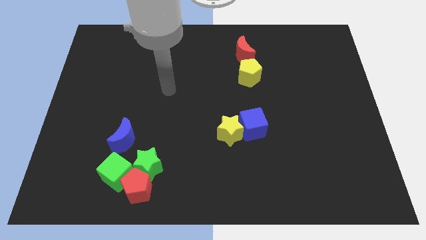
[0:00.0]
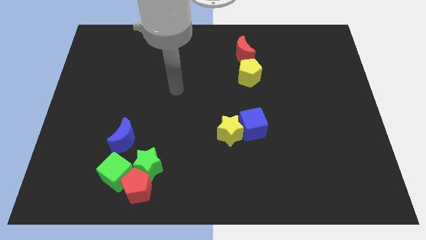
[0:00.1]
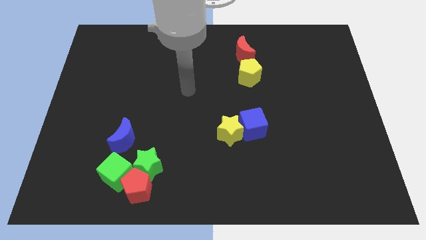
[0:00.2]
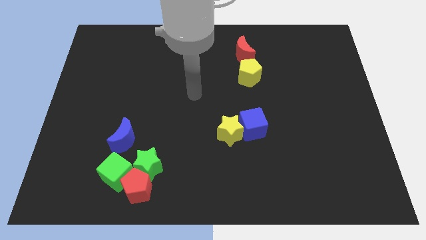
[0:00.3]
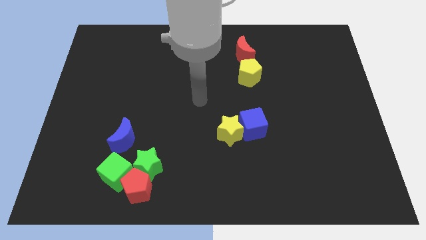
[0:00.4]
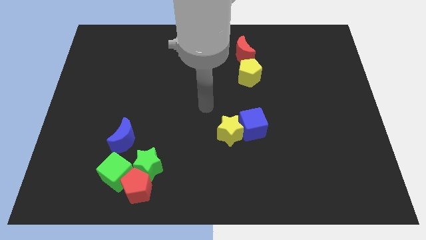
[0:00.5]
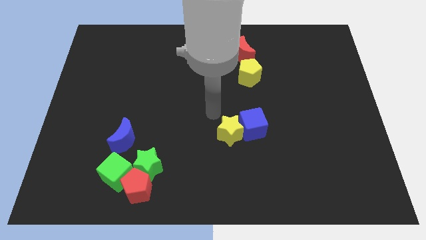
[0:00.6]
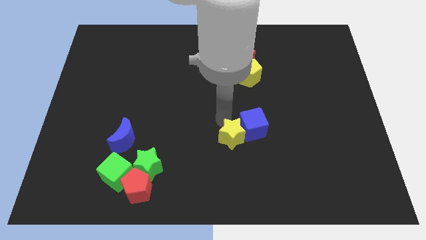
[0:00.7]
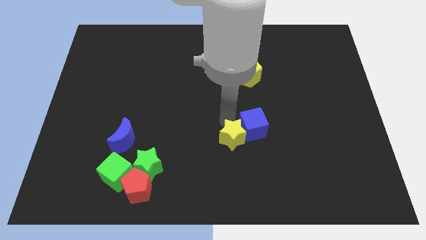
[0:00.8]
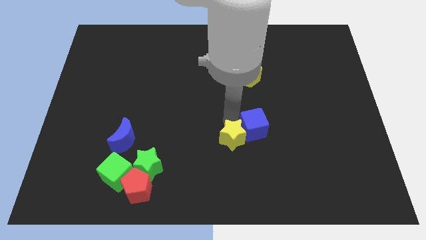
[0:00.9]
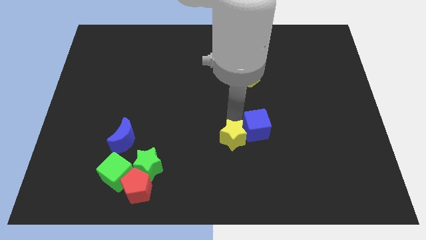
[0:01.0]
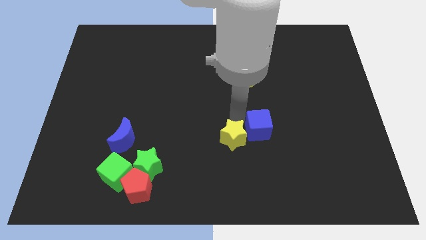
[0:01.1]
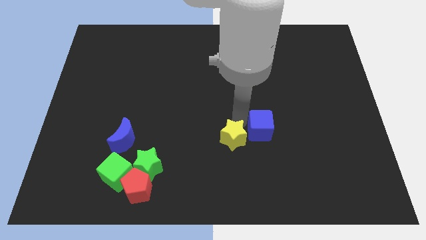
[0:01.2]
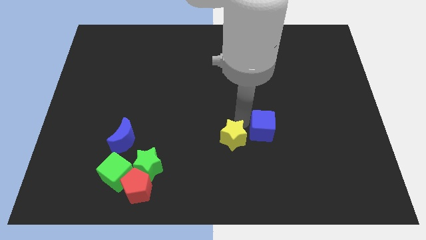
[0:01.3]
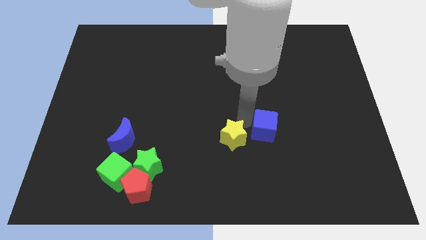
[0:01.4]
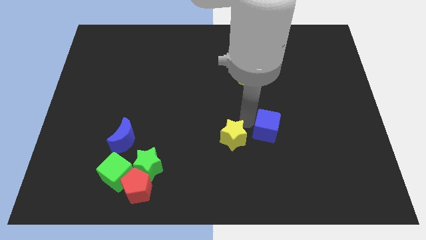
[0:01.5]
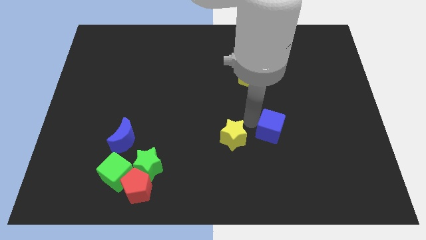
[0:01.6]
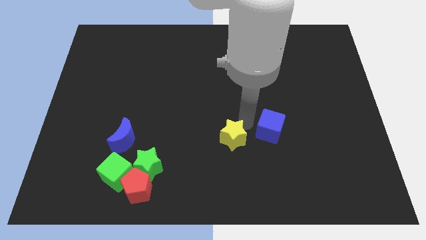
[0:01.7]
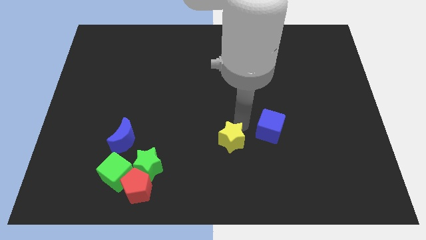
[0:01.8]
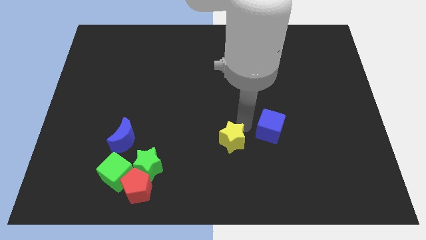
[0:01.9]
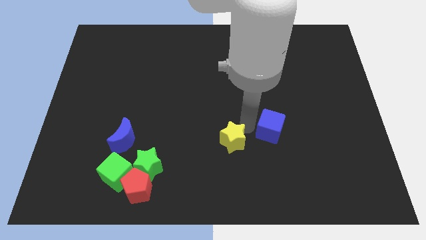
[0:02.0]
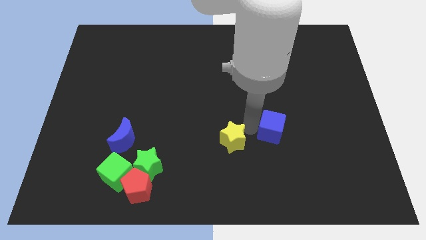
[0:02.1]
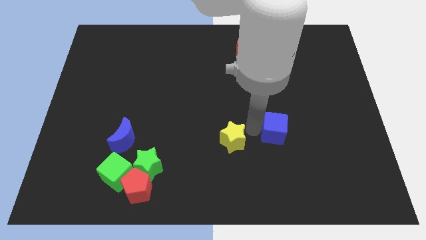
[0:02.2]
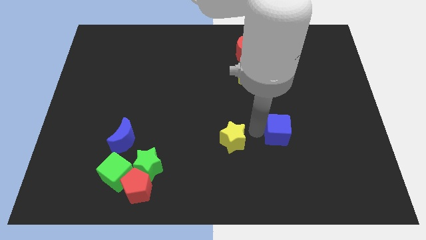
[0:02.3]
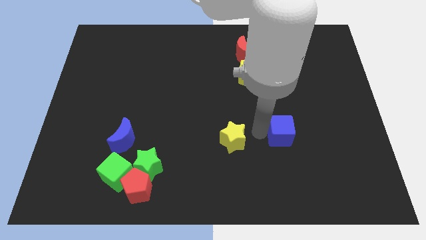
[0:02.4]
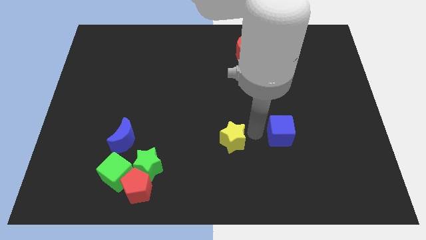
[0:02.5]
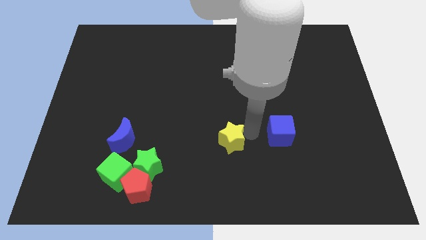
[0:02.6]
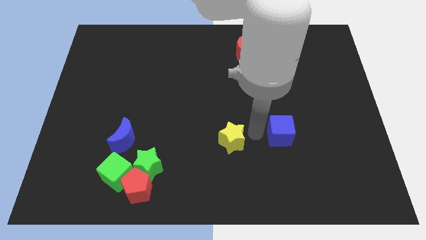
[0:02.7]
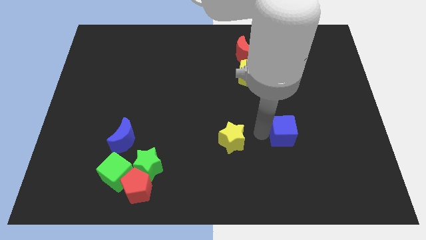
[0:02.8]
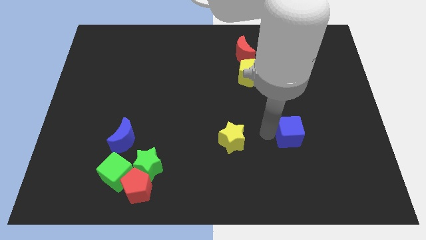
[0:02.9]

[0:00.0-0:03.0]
push the blue cube right slightly

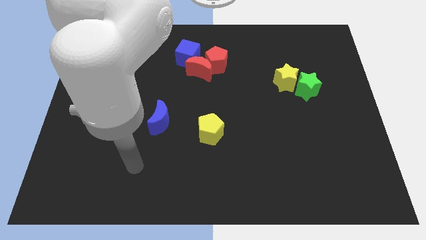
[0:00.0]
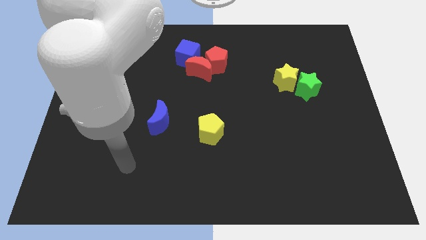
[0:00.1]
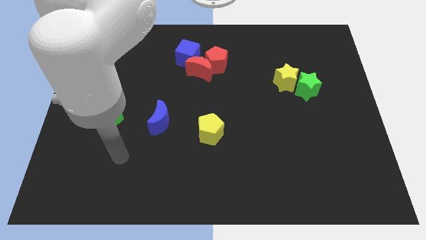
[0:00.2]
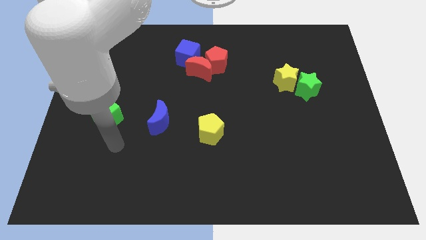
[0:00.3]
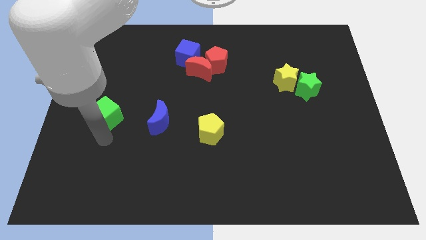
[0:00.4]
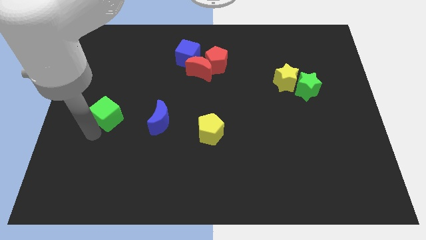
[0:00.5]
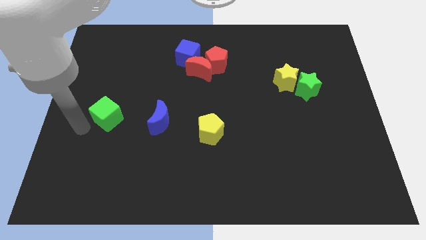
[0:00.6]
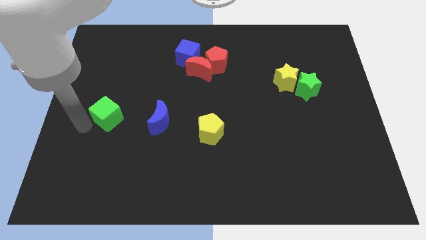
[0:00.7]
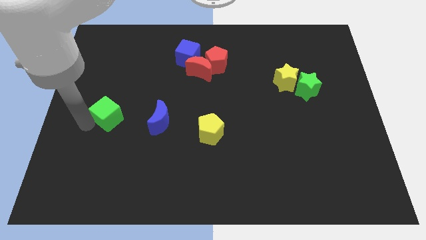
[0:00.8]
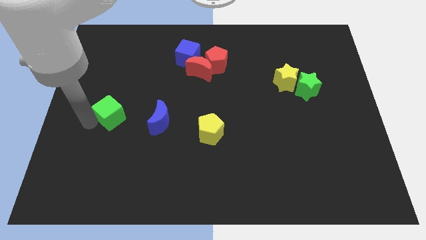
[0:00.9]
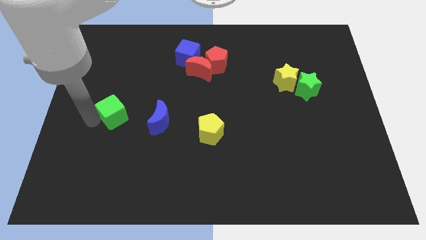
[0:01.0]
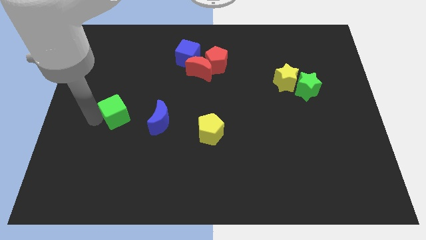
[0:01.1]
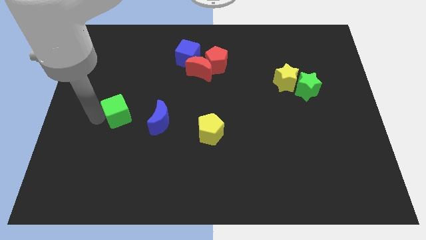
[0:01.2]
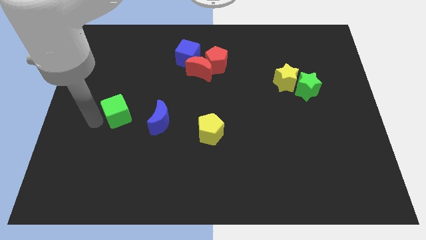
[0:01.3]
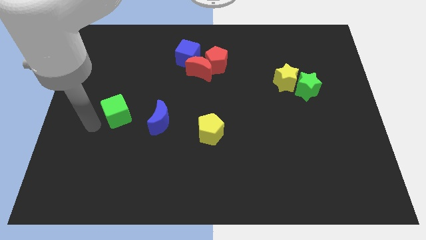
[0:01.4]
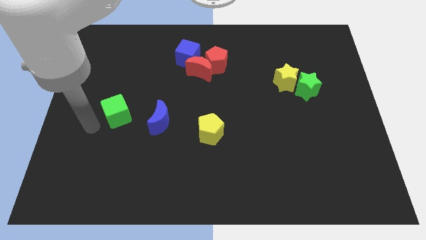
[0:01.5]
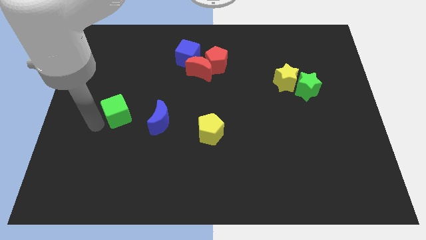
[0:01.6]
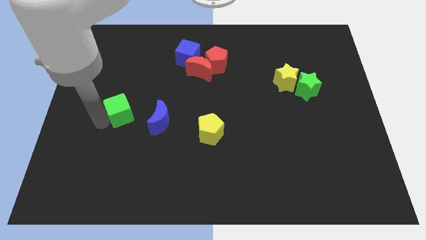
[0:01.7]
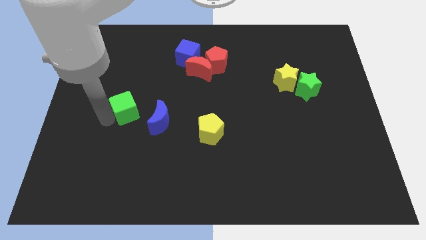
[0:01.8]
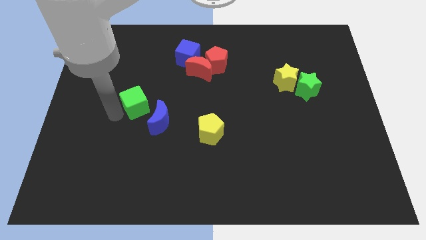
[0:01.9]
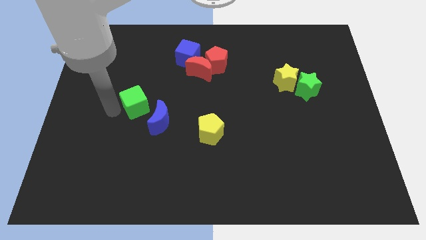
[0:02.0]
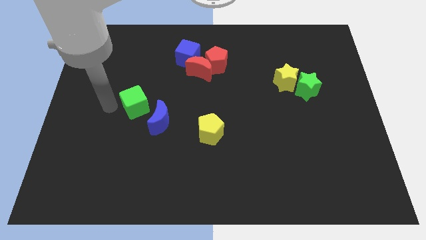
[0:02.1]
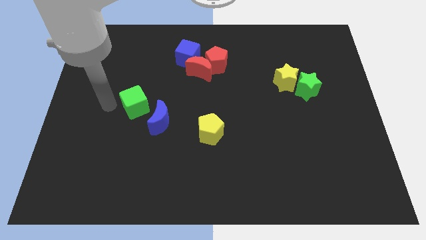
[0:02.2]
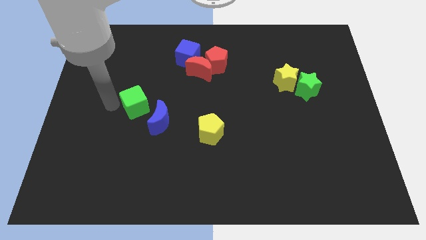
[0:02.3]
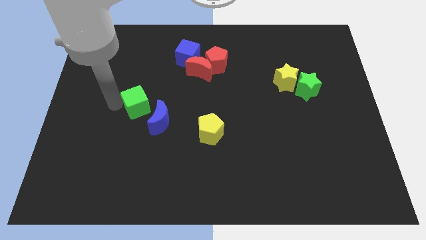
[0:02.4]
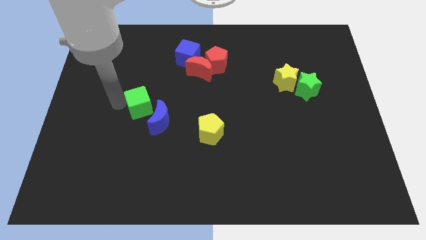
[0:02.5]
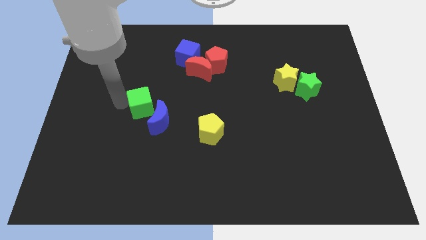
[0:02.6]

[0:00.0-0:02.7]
push the green cube to the right a little bit

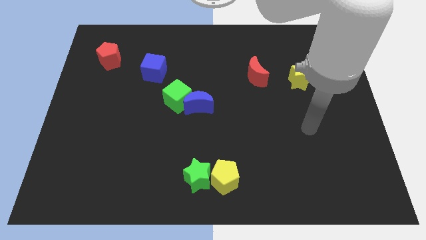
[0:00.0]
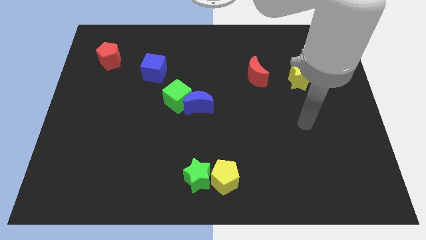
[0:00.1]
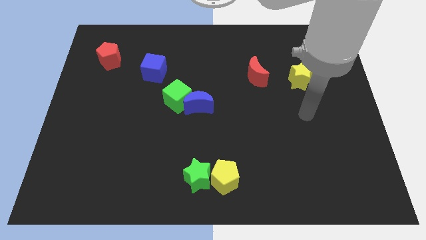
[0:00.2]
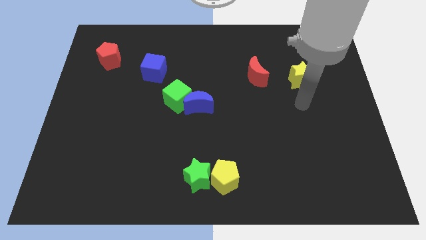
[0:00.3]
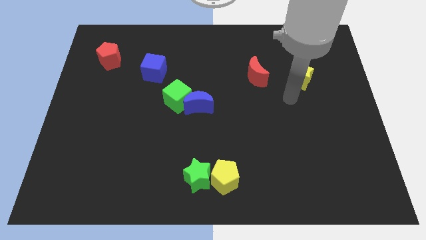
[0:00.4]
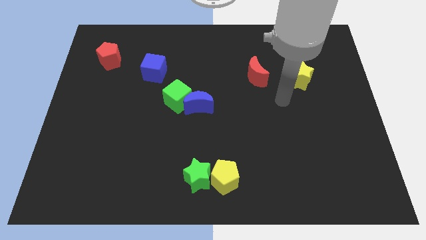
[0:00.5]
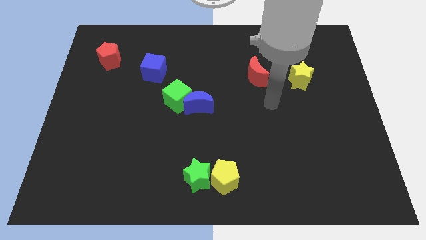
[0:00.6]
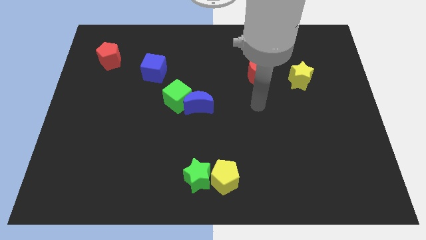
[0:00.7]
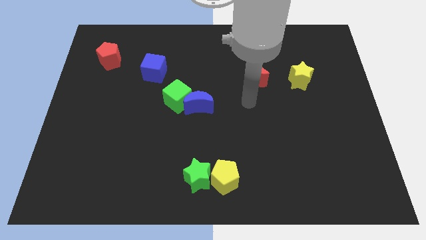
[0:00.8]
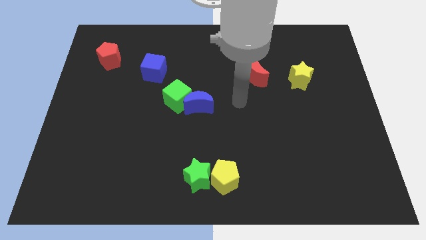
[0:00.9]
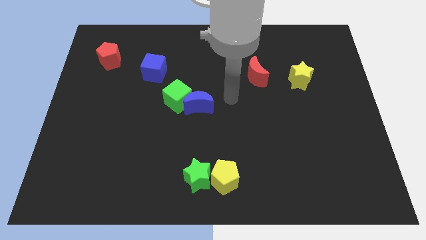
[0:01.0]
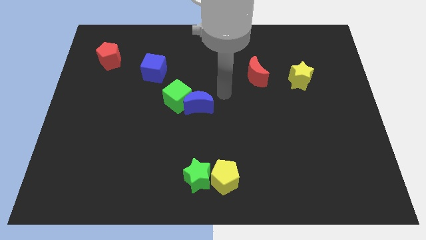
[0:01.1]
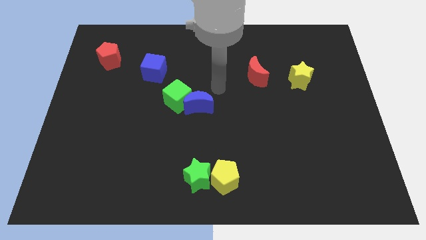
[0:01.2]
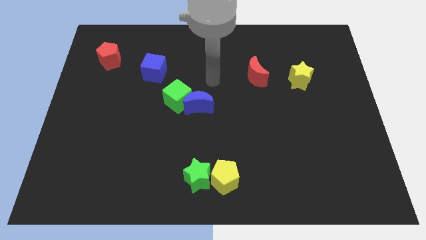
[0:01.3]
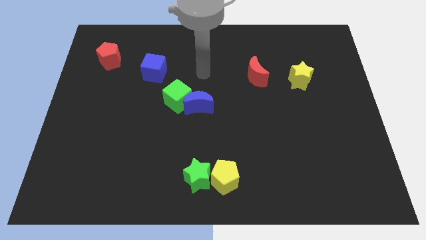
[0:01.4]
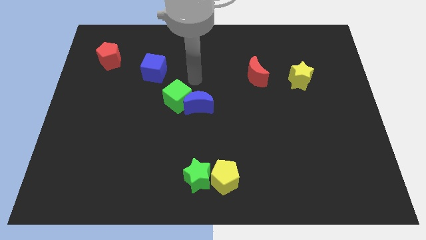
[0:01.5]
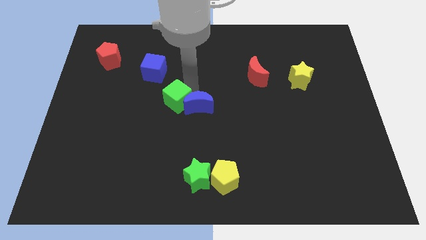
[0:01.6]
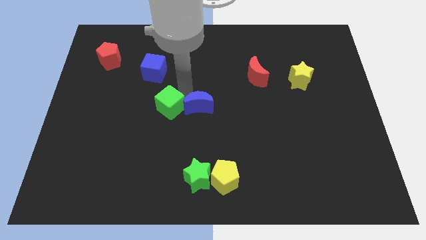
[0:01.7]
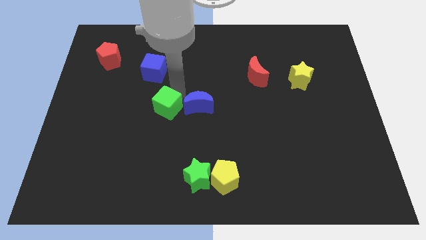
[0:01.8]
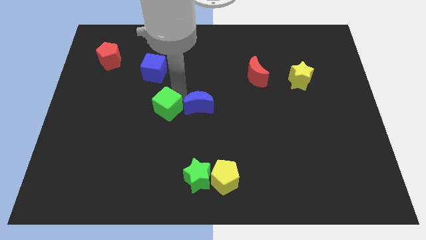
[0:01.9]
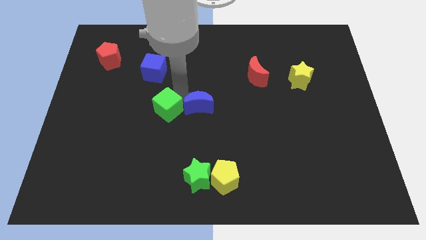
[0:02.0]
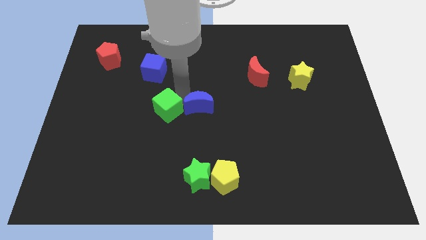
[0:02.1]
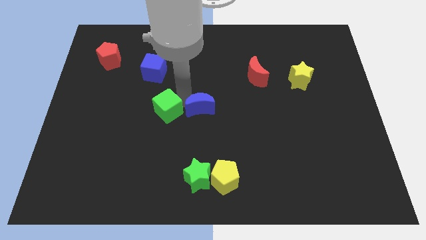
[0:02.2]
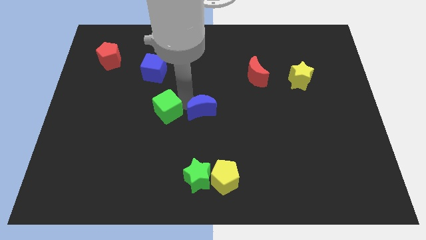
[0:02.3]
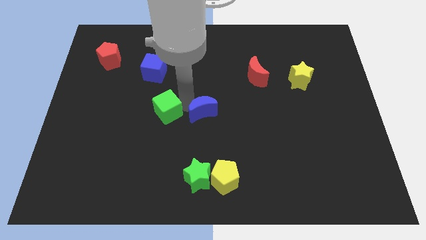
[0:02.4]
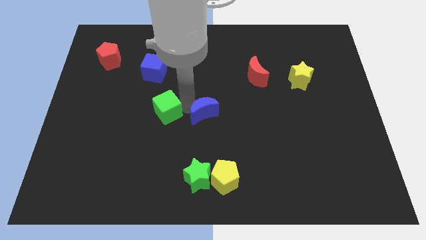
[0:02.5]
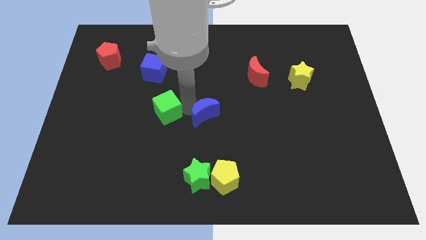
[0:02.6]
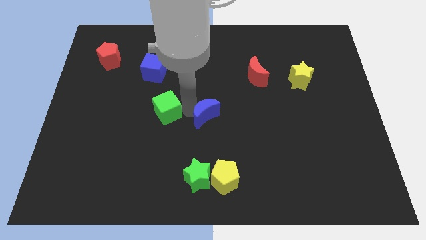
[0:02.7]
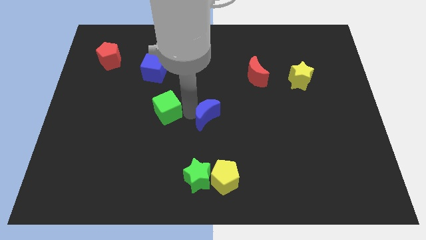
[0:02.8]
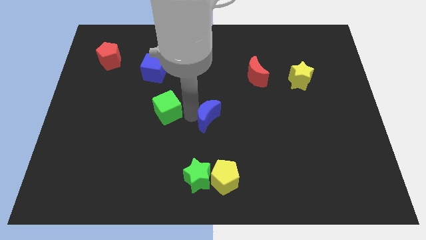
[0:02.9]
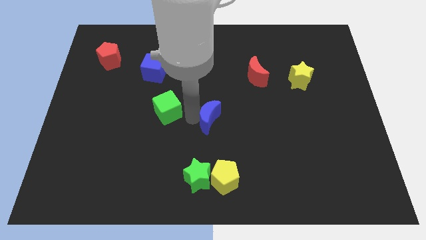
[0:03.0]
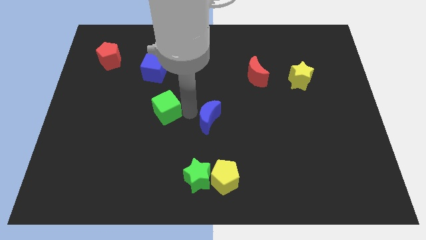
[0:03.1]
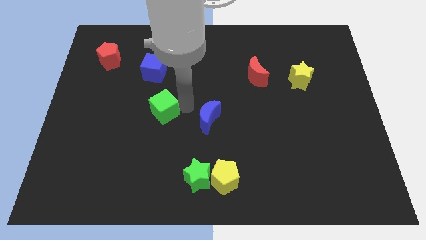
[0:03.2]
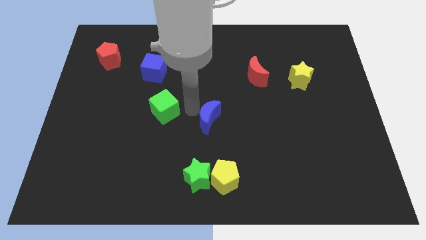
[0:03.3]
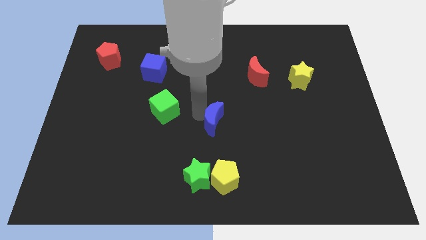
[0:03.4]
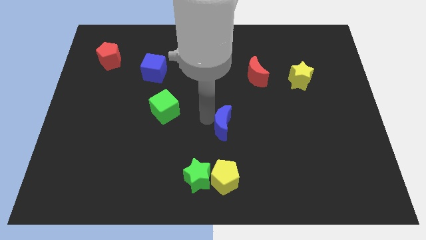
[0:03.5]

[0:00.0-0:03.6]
slightly slide the blue moon downwards and to the right diagonally
